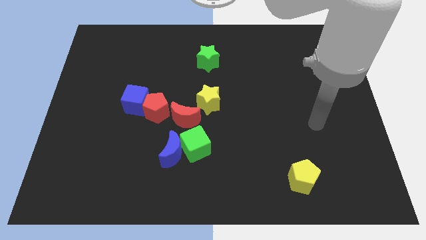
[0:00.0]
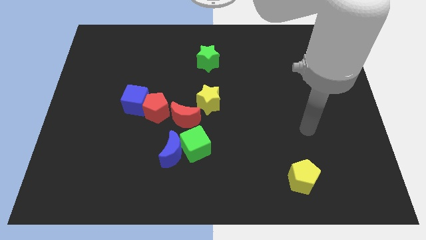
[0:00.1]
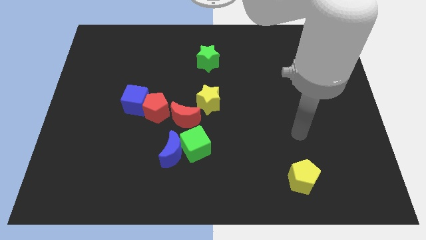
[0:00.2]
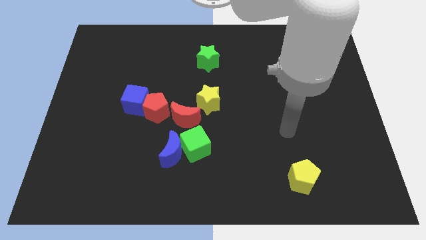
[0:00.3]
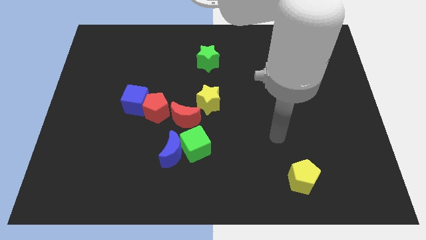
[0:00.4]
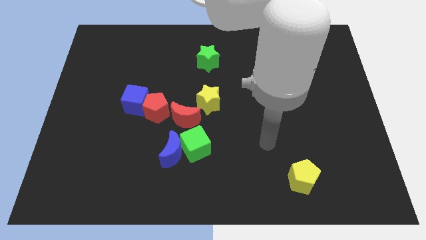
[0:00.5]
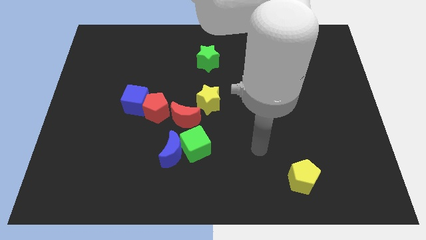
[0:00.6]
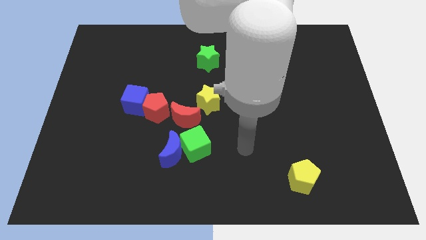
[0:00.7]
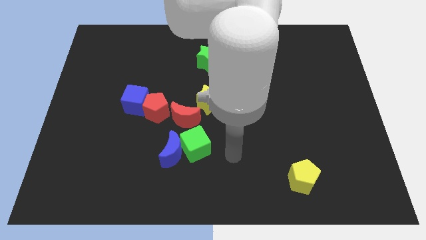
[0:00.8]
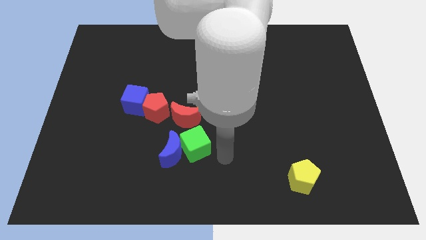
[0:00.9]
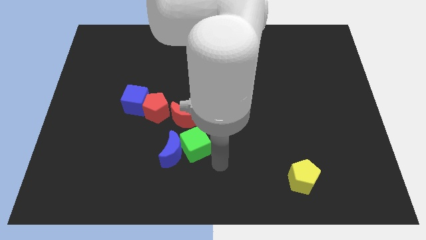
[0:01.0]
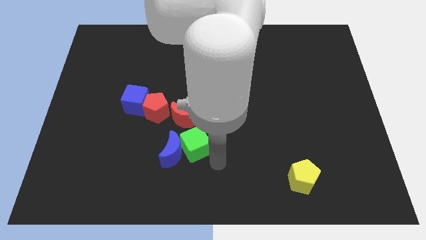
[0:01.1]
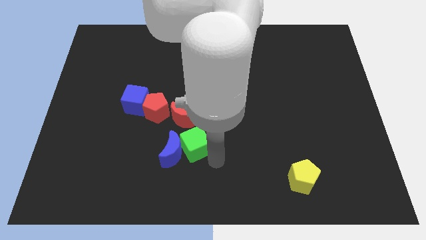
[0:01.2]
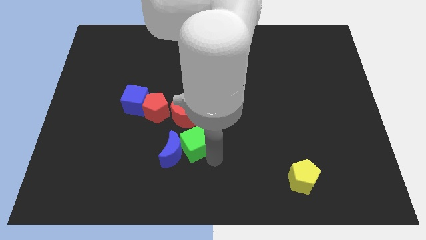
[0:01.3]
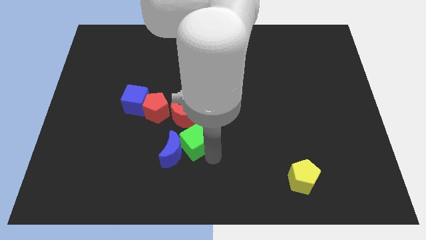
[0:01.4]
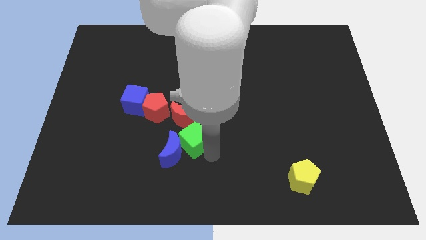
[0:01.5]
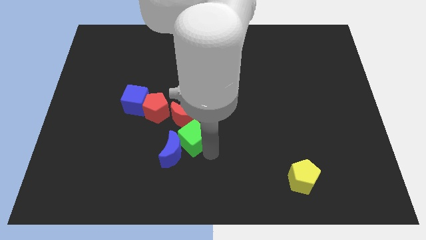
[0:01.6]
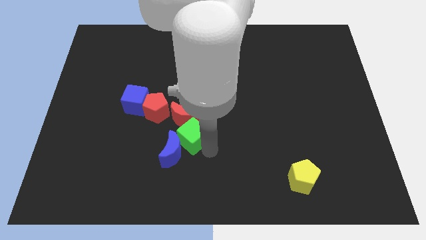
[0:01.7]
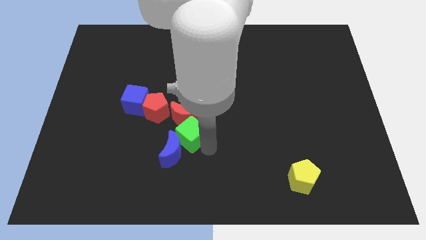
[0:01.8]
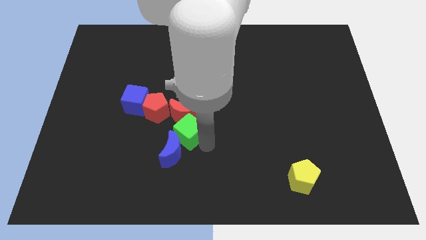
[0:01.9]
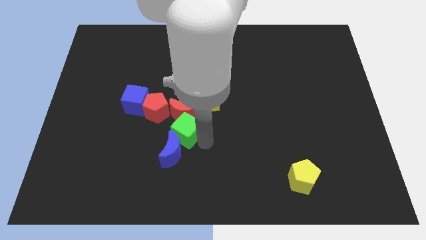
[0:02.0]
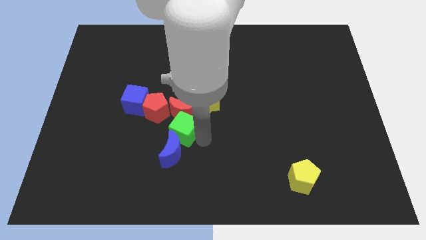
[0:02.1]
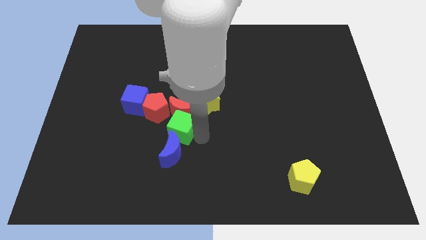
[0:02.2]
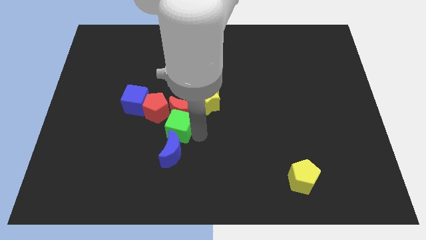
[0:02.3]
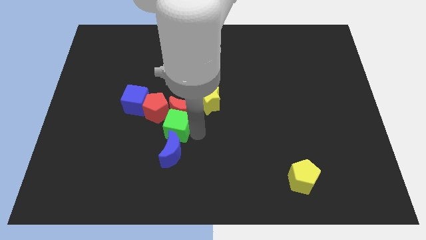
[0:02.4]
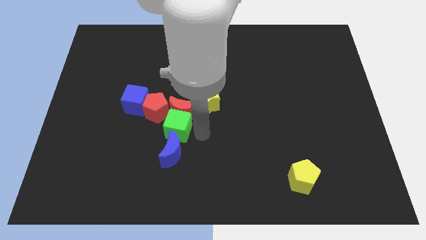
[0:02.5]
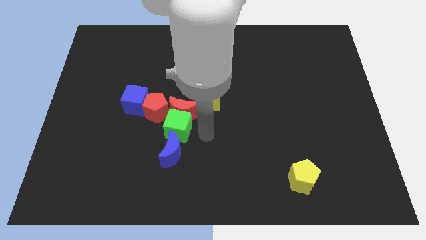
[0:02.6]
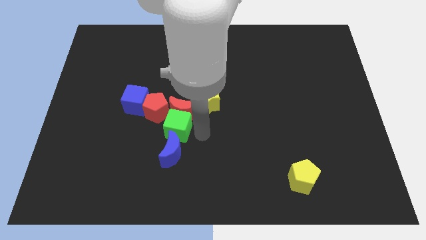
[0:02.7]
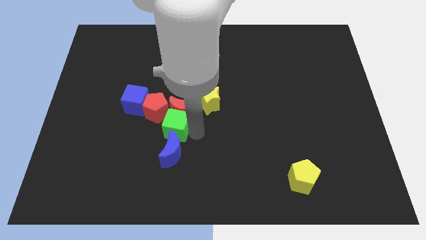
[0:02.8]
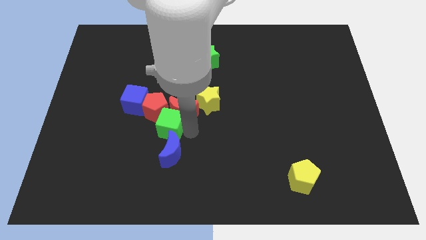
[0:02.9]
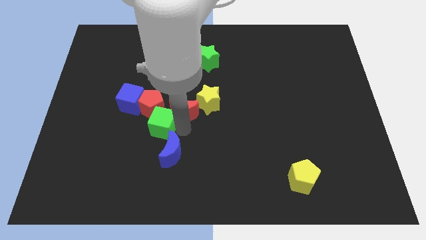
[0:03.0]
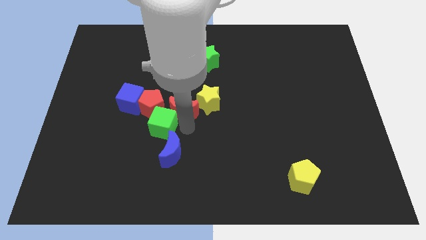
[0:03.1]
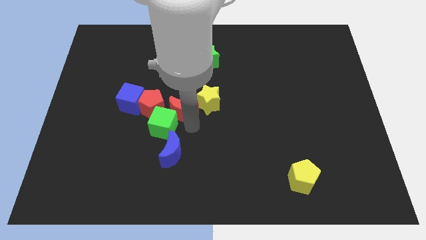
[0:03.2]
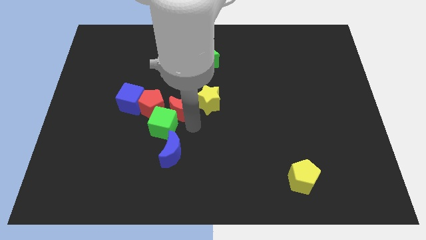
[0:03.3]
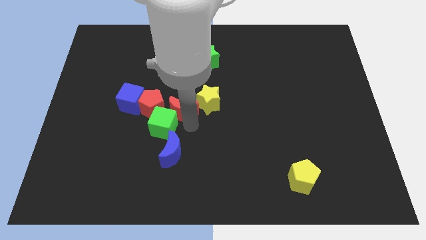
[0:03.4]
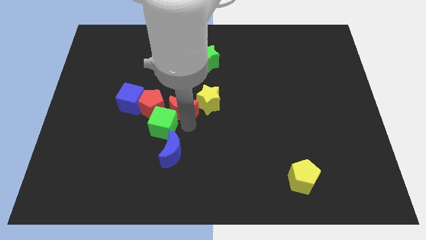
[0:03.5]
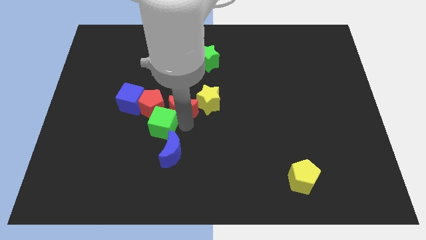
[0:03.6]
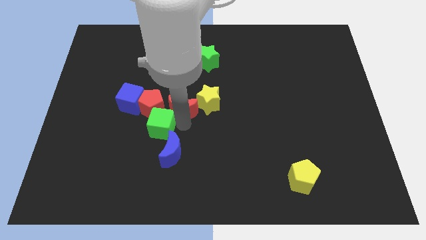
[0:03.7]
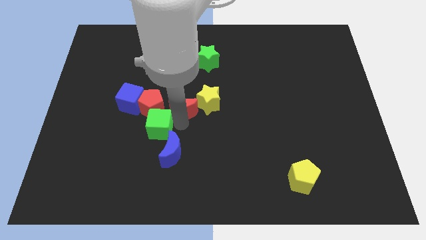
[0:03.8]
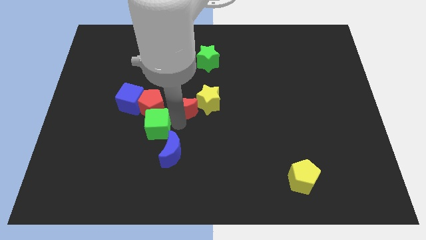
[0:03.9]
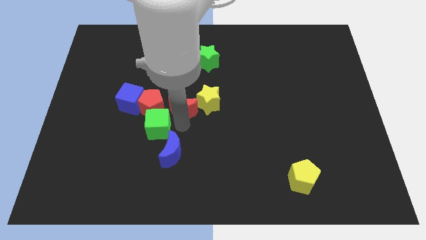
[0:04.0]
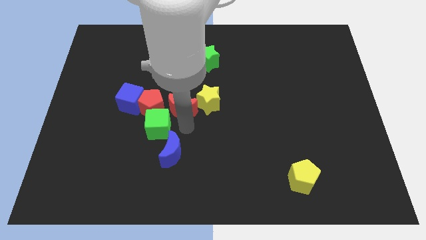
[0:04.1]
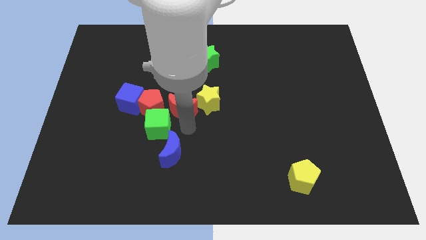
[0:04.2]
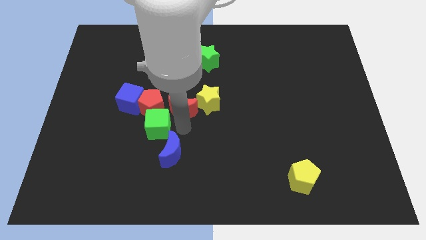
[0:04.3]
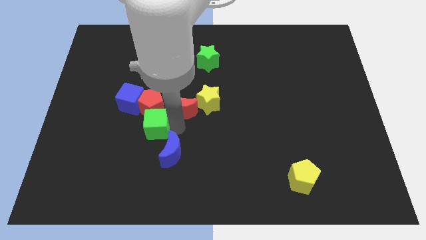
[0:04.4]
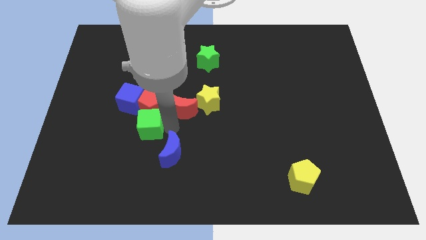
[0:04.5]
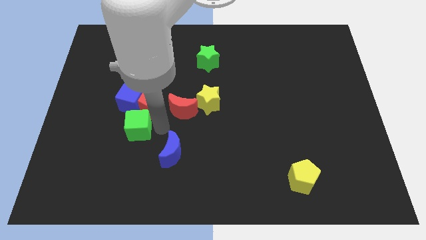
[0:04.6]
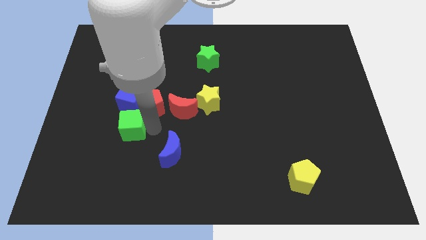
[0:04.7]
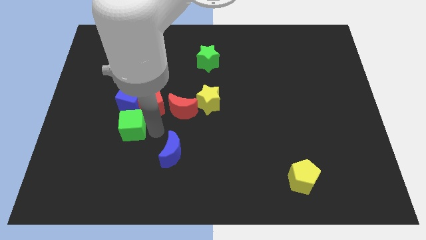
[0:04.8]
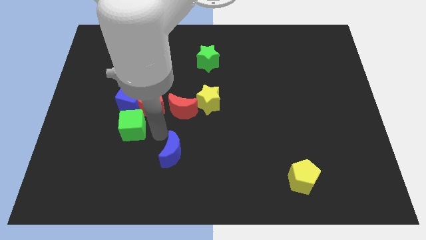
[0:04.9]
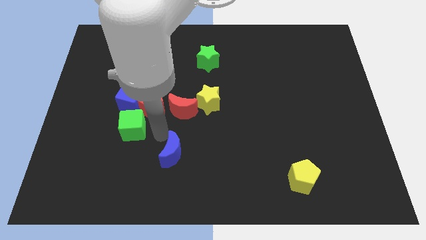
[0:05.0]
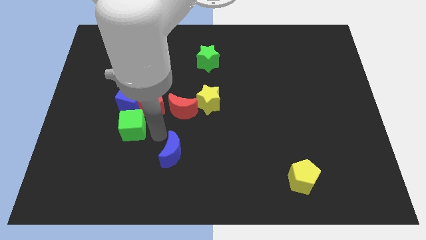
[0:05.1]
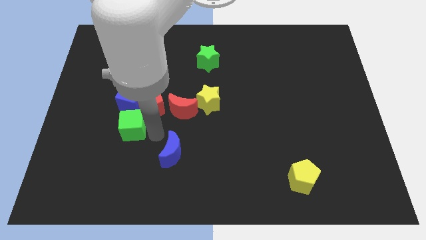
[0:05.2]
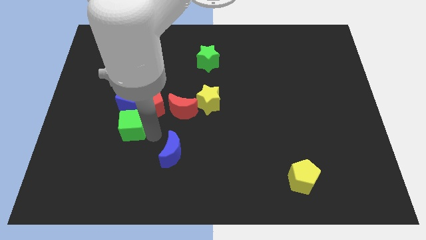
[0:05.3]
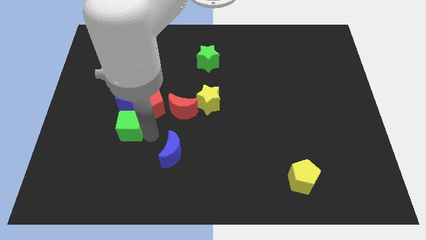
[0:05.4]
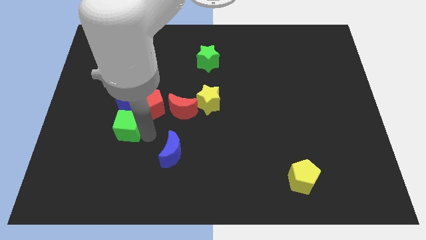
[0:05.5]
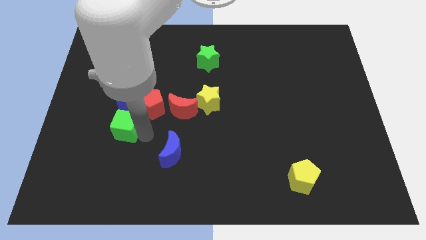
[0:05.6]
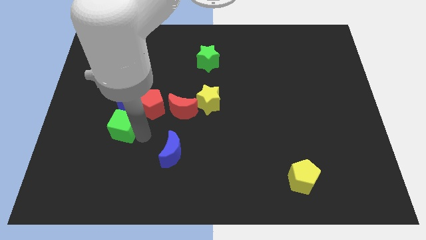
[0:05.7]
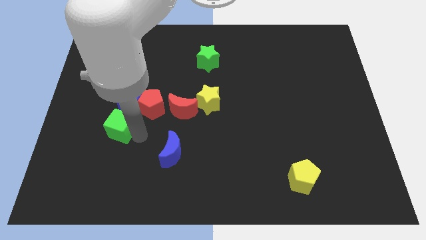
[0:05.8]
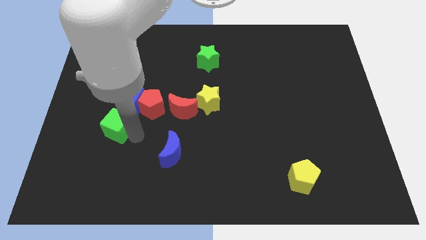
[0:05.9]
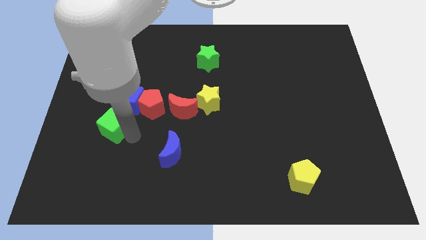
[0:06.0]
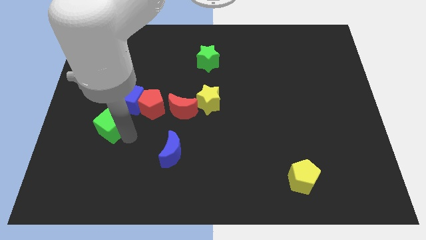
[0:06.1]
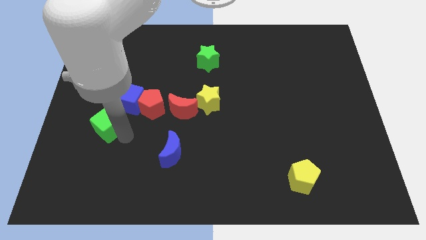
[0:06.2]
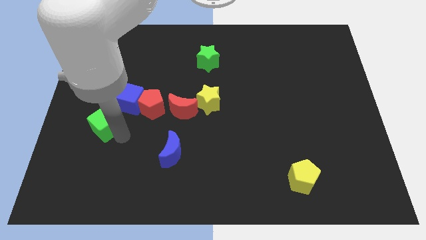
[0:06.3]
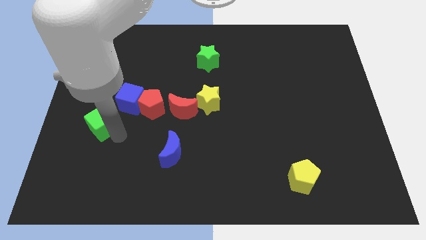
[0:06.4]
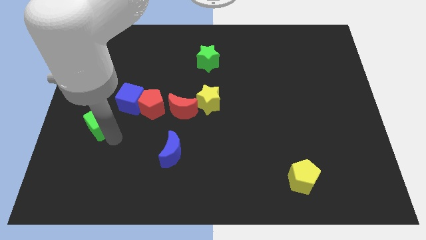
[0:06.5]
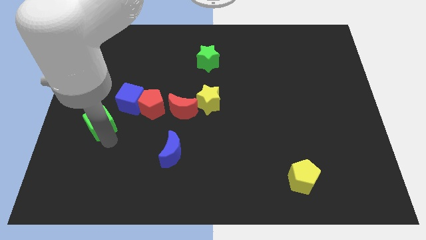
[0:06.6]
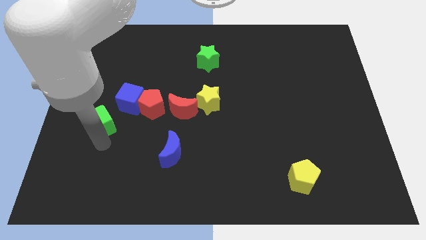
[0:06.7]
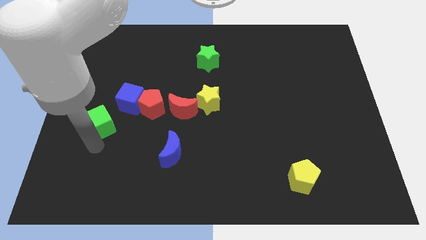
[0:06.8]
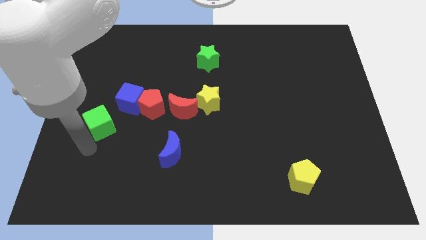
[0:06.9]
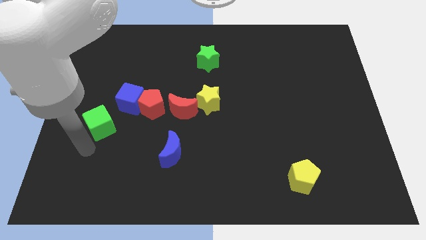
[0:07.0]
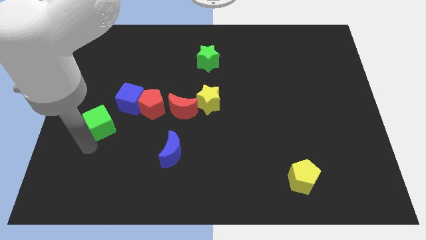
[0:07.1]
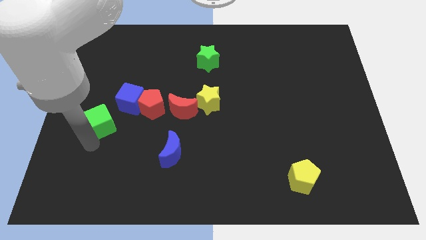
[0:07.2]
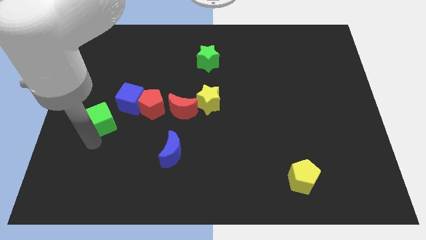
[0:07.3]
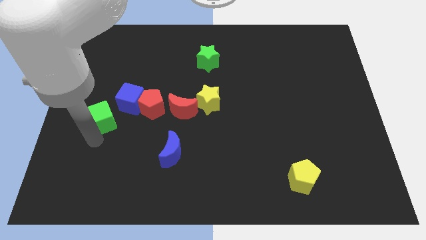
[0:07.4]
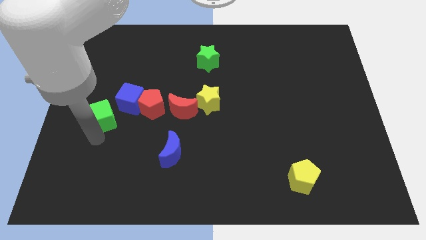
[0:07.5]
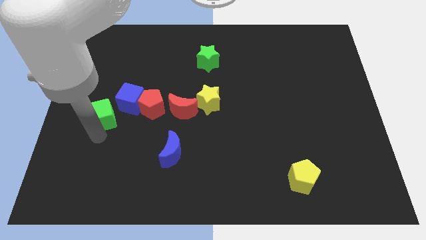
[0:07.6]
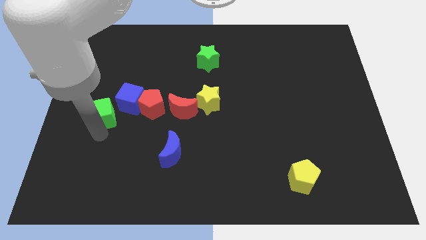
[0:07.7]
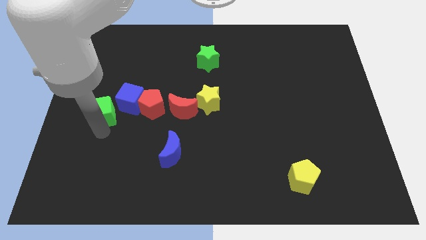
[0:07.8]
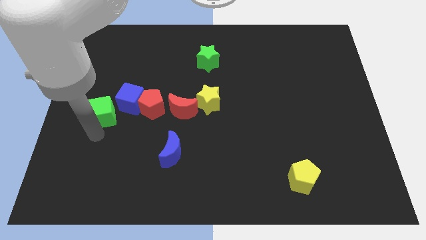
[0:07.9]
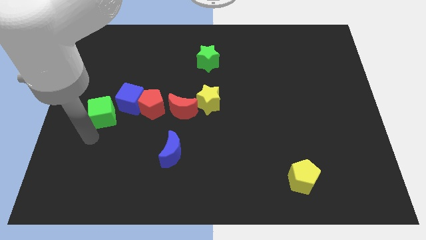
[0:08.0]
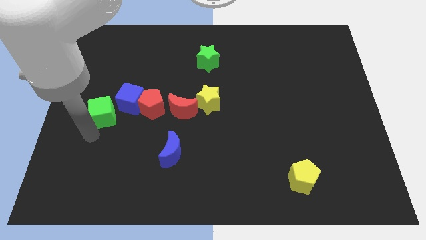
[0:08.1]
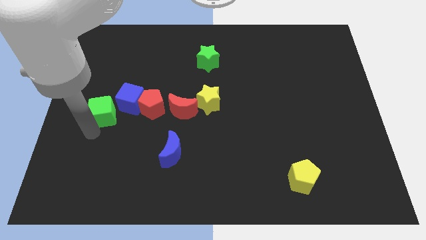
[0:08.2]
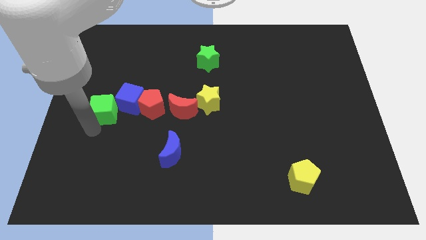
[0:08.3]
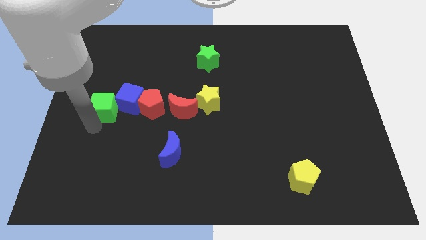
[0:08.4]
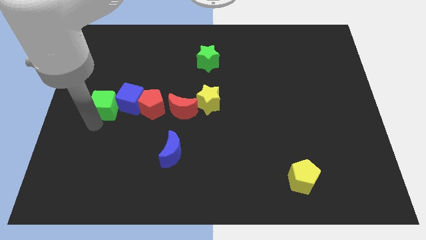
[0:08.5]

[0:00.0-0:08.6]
move the green cube diagonally upwards and to the left

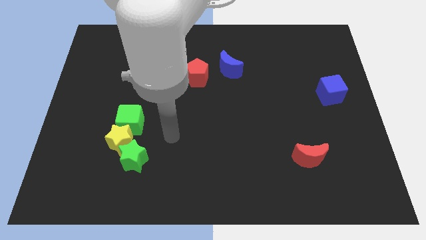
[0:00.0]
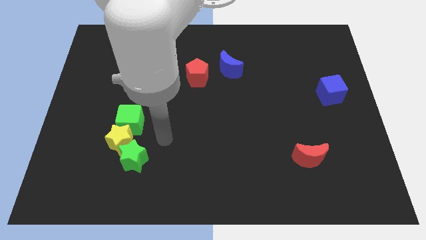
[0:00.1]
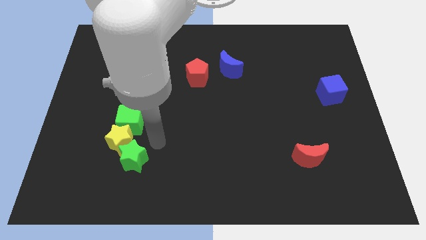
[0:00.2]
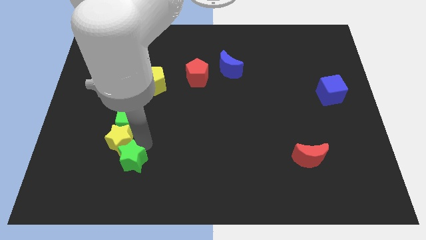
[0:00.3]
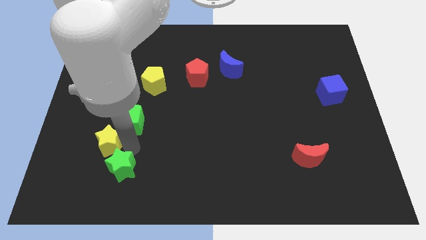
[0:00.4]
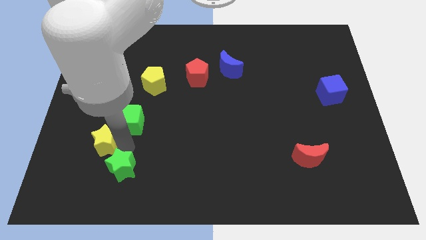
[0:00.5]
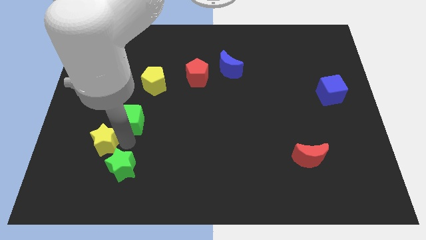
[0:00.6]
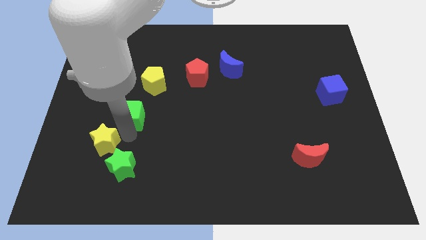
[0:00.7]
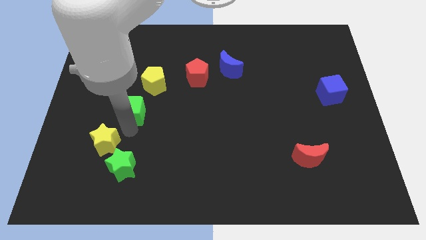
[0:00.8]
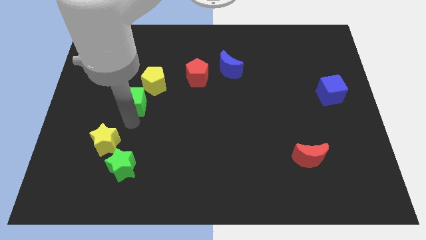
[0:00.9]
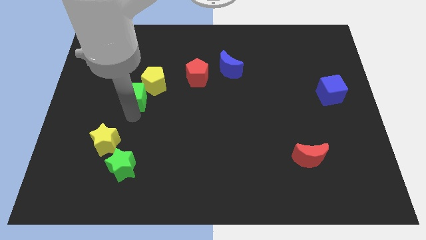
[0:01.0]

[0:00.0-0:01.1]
slide the green cube up a bit
